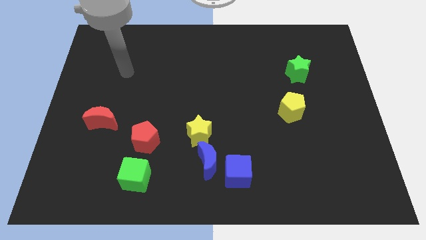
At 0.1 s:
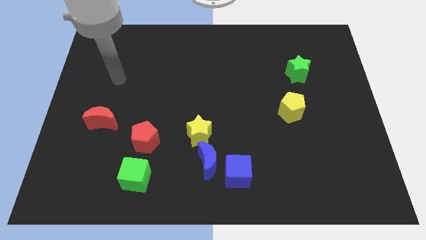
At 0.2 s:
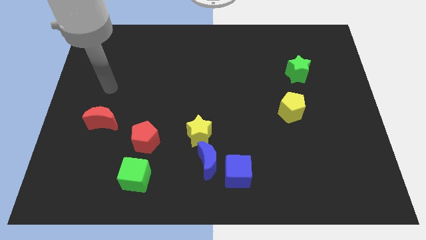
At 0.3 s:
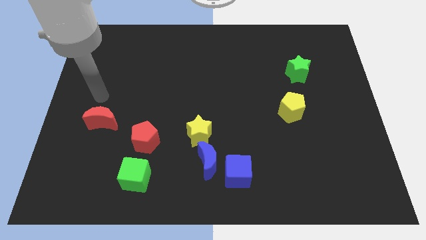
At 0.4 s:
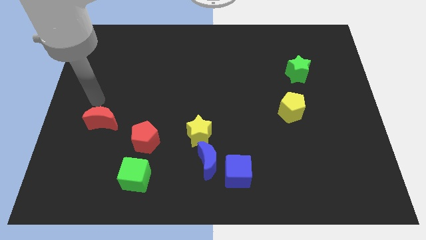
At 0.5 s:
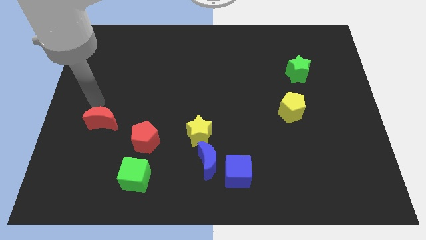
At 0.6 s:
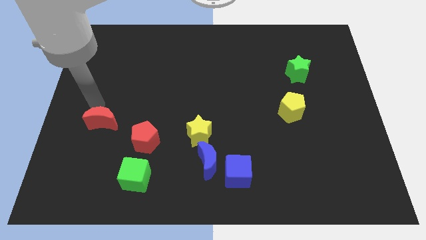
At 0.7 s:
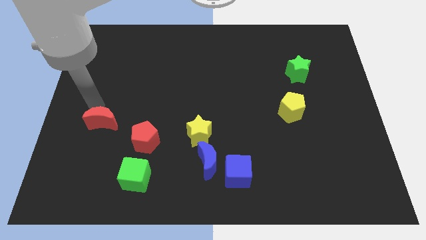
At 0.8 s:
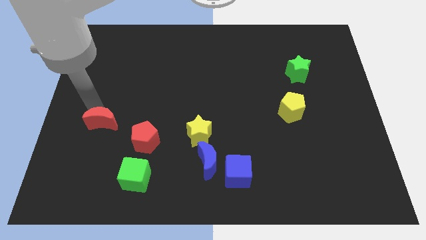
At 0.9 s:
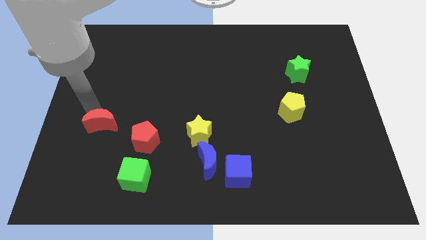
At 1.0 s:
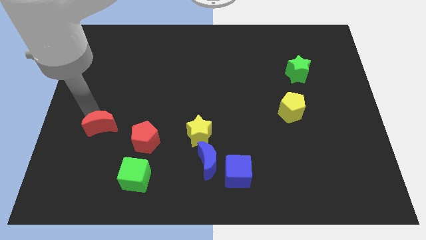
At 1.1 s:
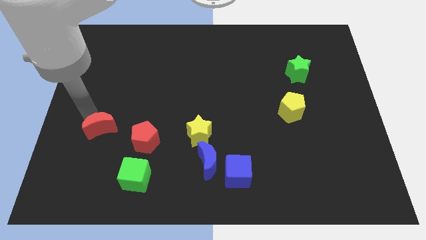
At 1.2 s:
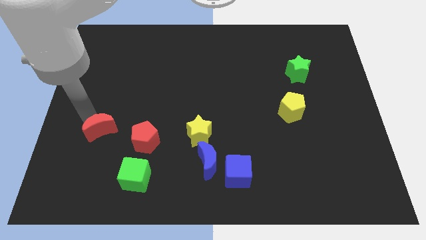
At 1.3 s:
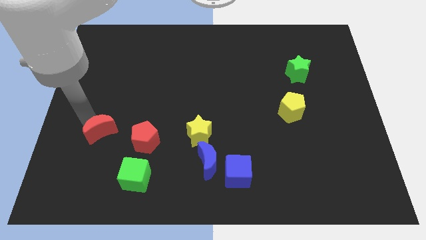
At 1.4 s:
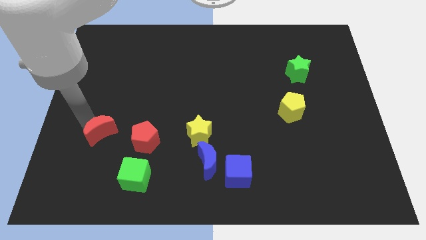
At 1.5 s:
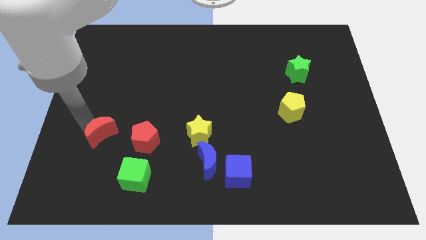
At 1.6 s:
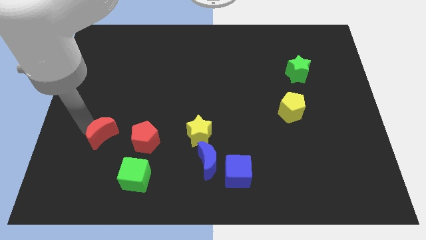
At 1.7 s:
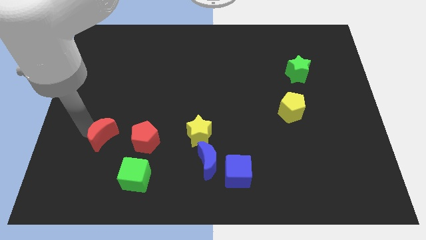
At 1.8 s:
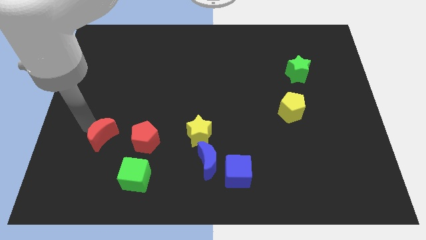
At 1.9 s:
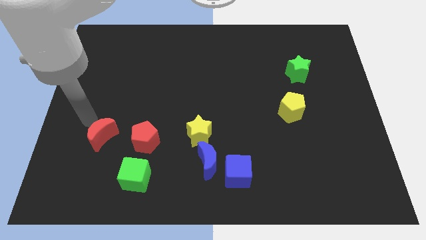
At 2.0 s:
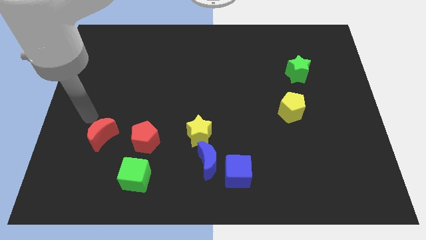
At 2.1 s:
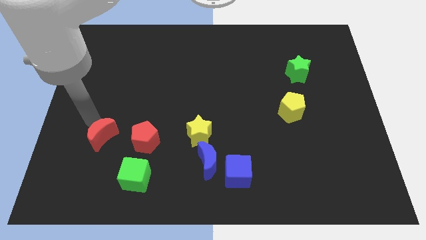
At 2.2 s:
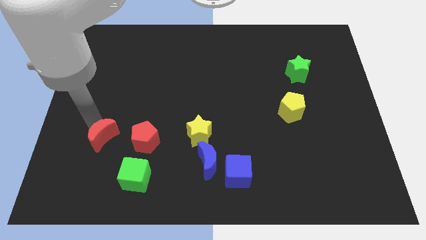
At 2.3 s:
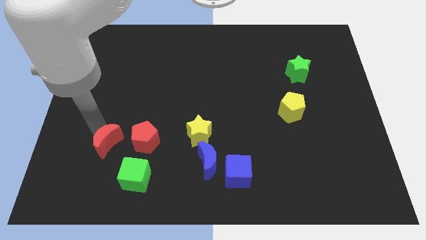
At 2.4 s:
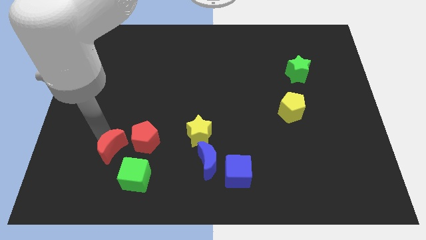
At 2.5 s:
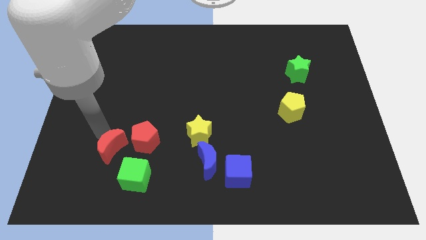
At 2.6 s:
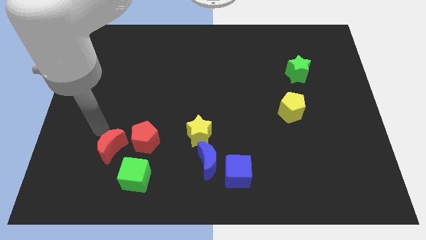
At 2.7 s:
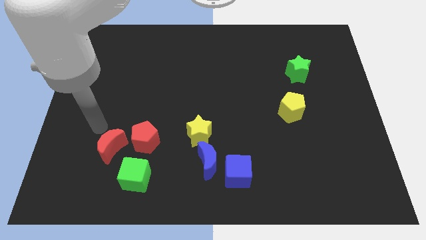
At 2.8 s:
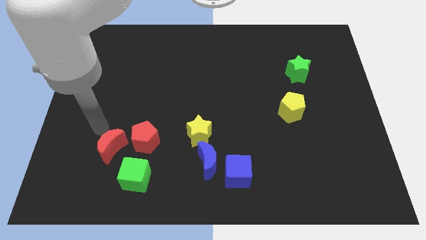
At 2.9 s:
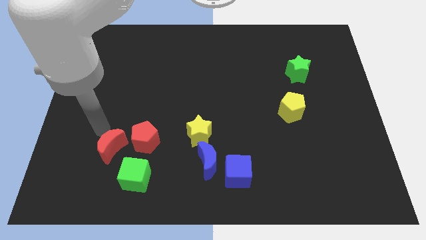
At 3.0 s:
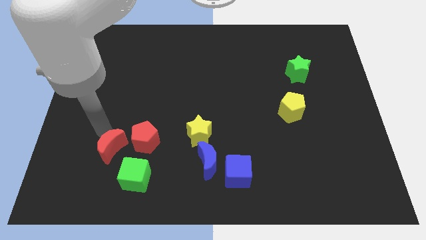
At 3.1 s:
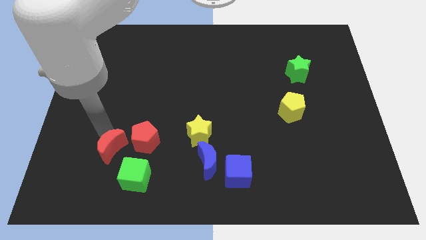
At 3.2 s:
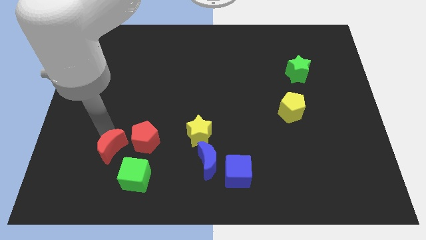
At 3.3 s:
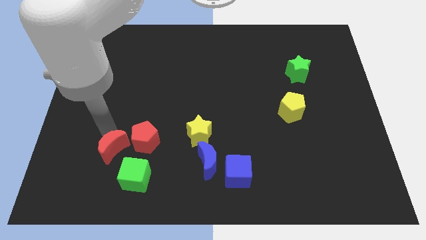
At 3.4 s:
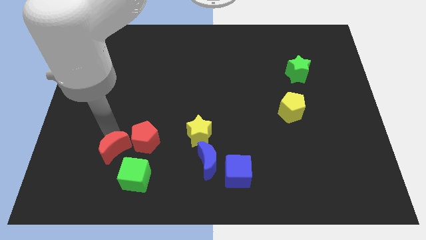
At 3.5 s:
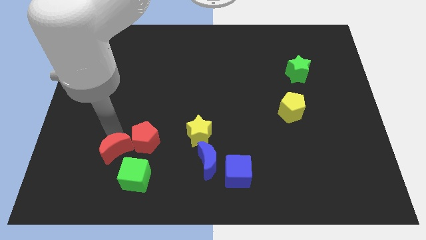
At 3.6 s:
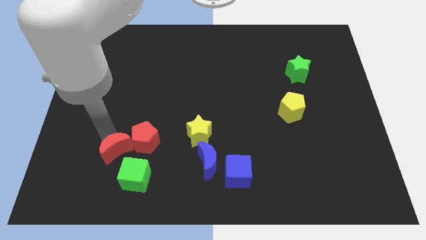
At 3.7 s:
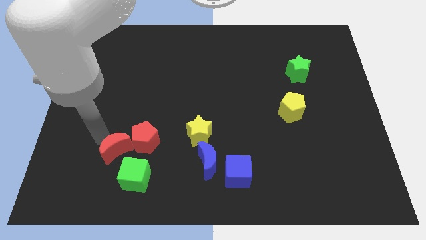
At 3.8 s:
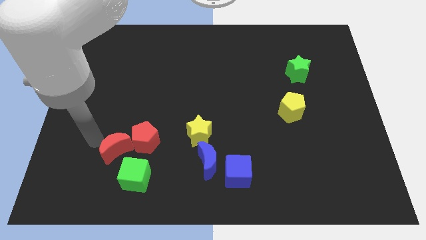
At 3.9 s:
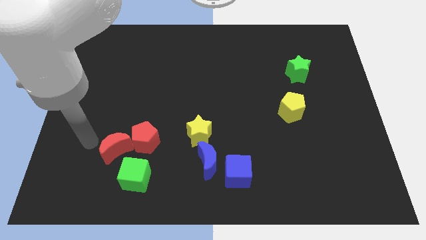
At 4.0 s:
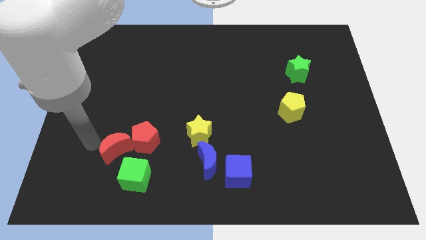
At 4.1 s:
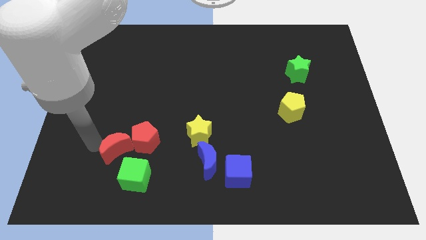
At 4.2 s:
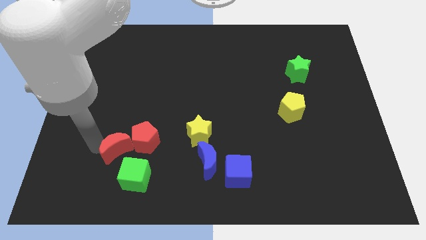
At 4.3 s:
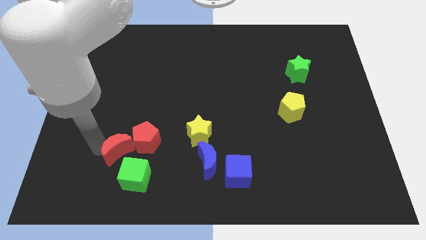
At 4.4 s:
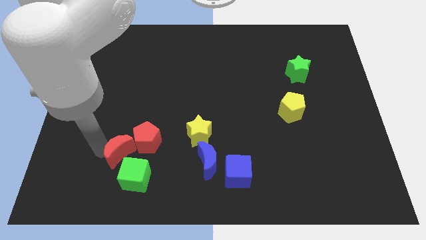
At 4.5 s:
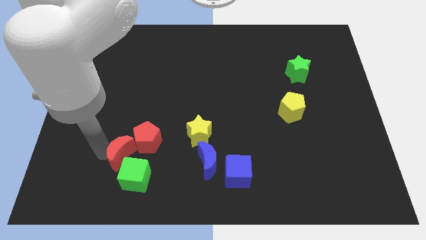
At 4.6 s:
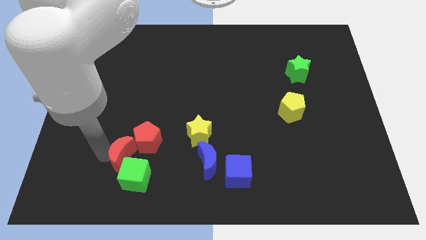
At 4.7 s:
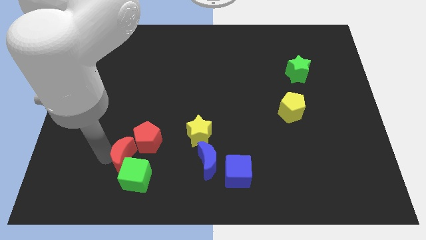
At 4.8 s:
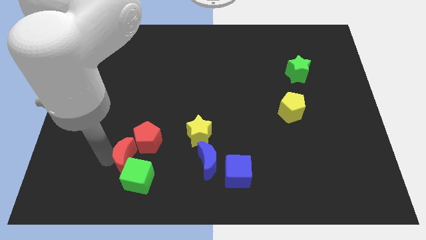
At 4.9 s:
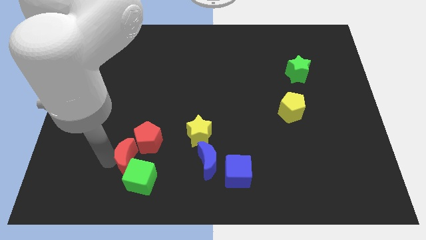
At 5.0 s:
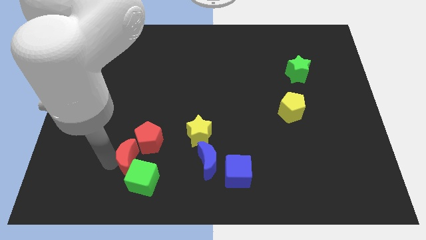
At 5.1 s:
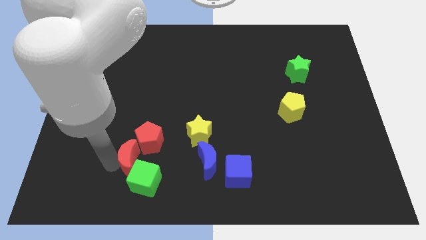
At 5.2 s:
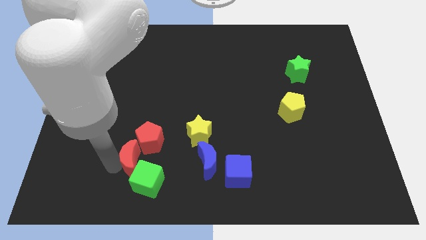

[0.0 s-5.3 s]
push the red moon to the left side of the blue moon

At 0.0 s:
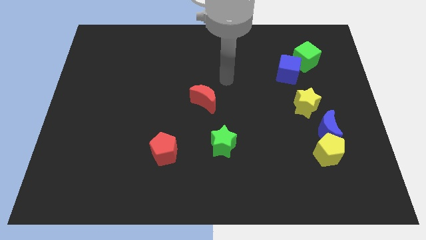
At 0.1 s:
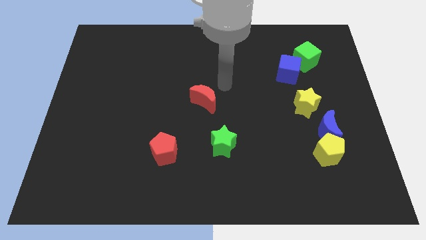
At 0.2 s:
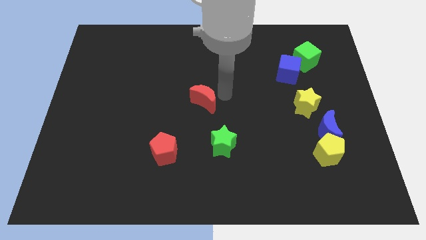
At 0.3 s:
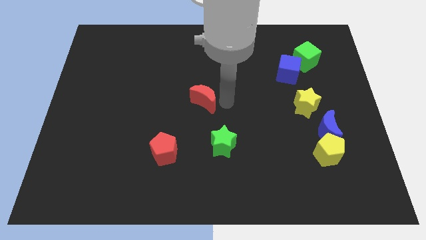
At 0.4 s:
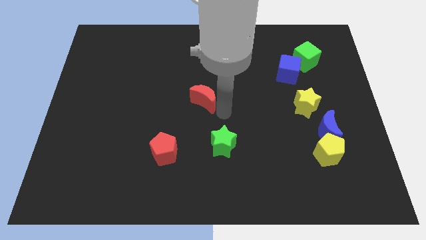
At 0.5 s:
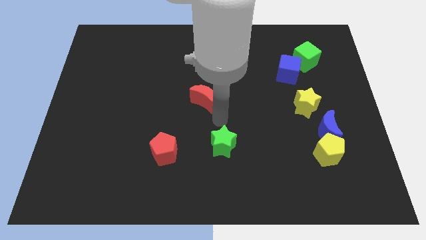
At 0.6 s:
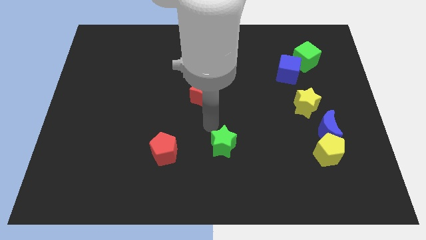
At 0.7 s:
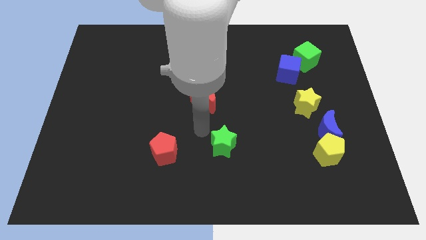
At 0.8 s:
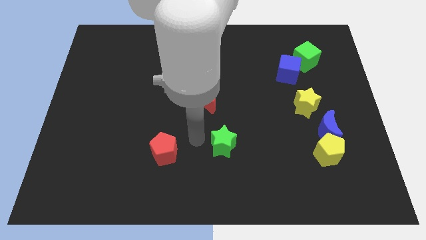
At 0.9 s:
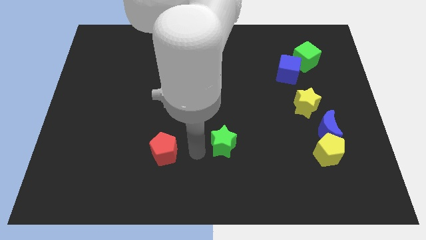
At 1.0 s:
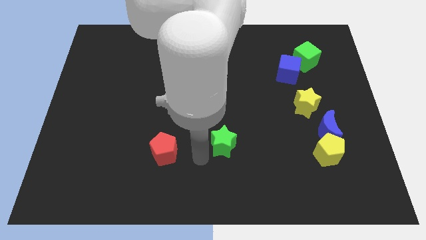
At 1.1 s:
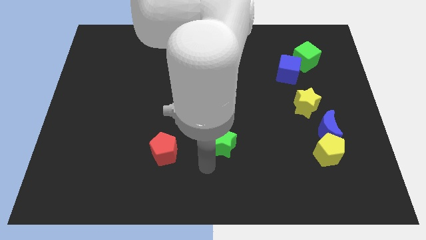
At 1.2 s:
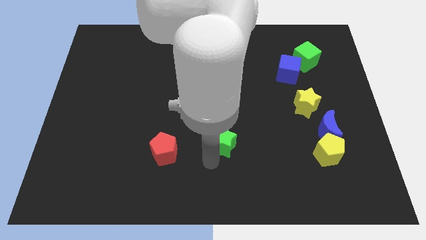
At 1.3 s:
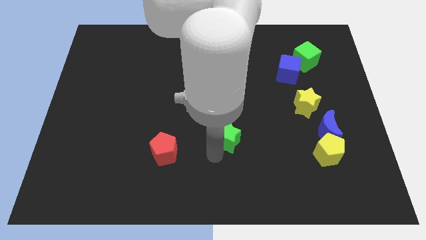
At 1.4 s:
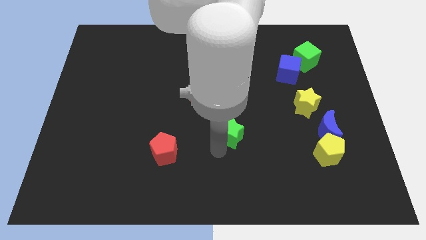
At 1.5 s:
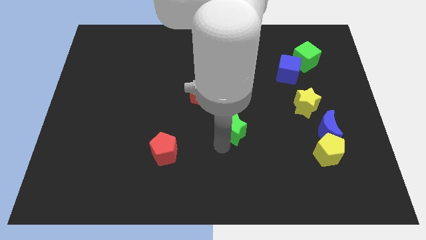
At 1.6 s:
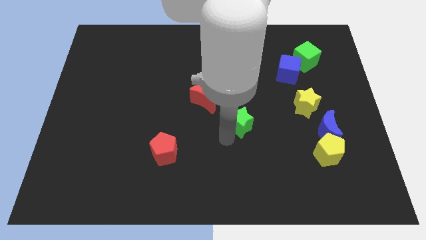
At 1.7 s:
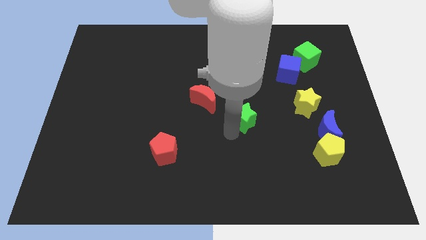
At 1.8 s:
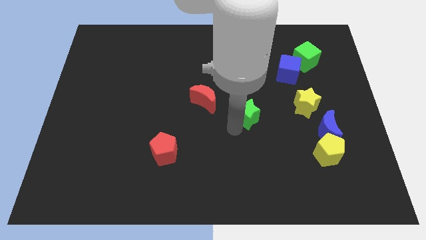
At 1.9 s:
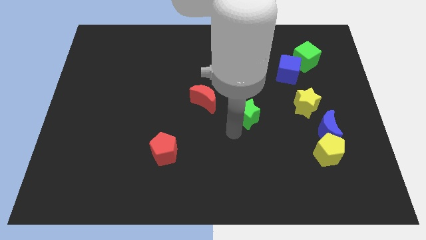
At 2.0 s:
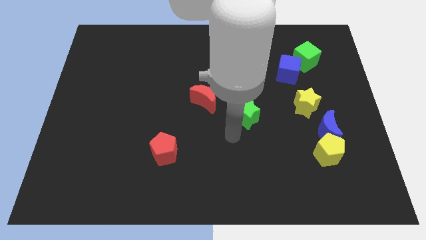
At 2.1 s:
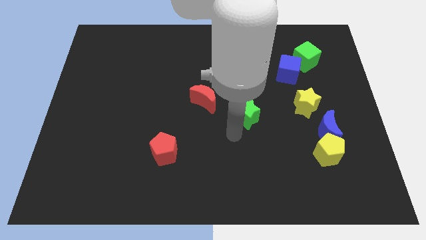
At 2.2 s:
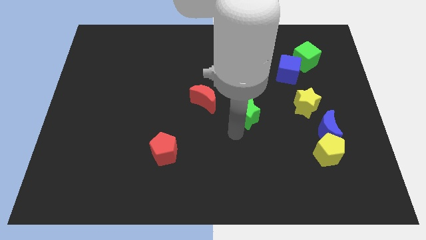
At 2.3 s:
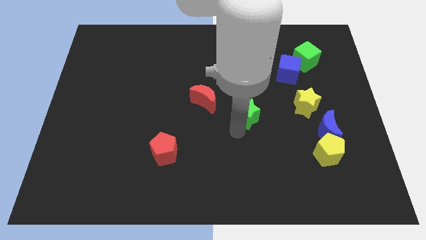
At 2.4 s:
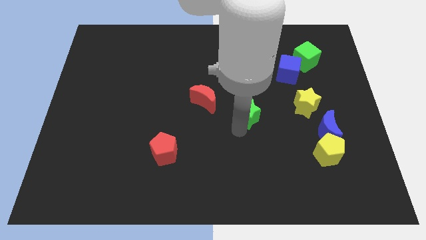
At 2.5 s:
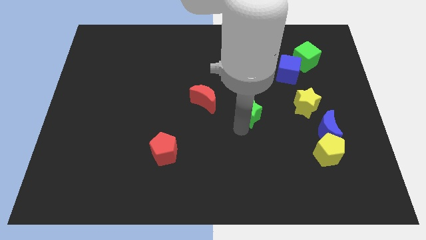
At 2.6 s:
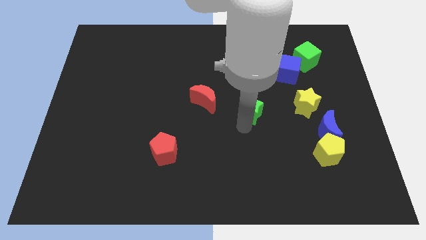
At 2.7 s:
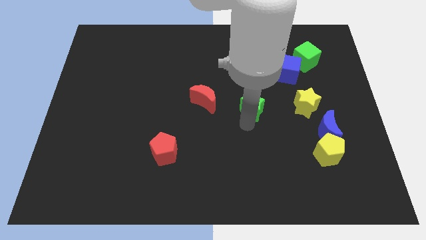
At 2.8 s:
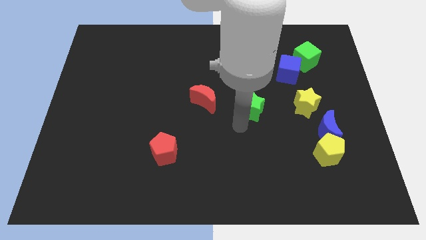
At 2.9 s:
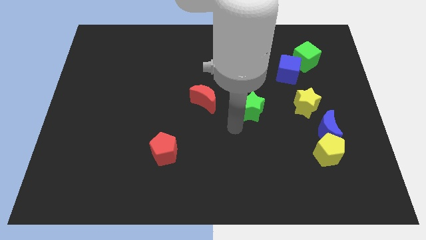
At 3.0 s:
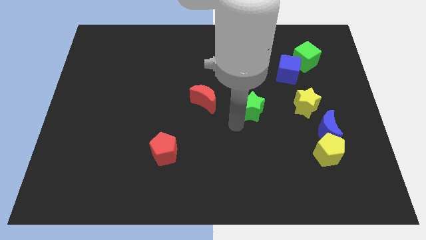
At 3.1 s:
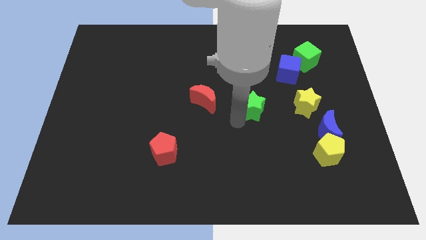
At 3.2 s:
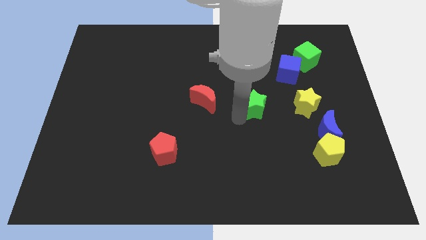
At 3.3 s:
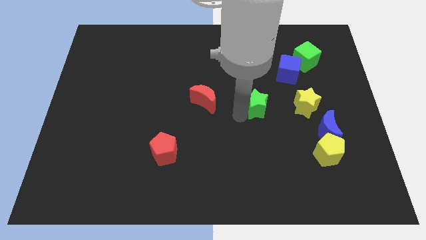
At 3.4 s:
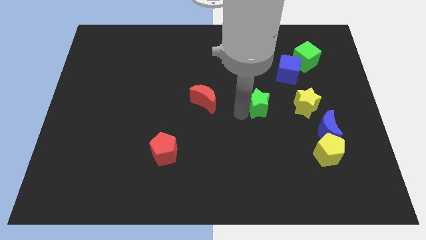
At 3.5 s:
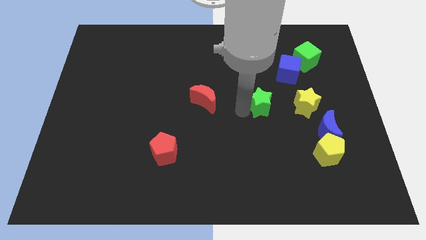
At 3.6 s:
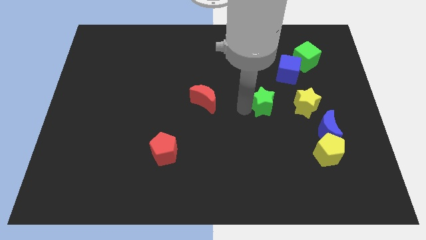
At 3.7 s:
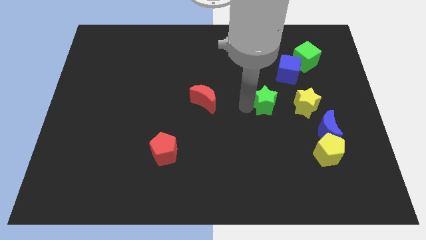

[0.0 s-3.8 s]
push the green star to the bottom left side of the blue cube
